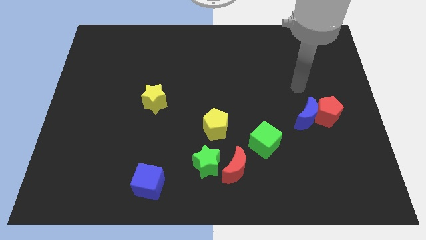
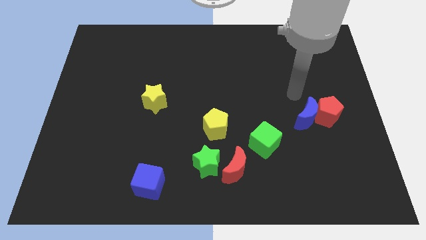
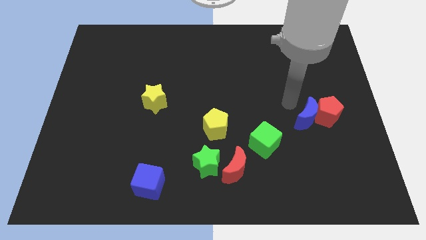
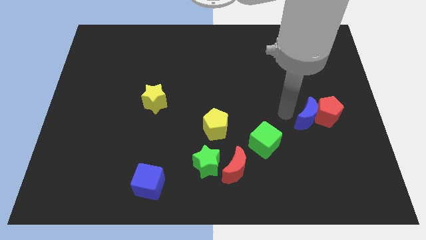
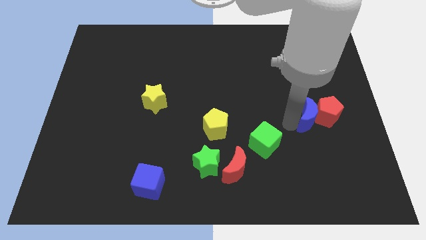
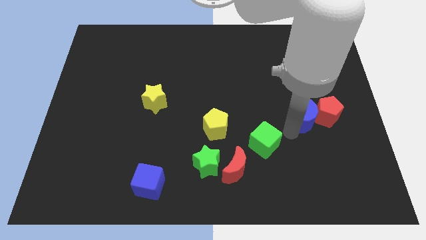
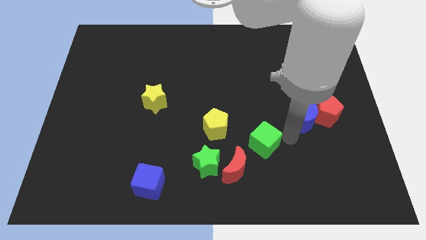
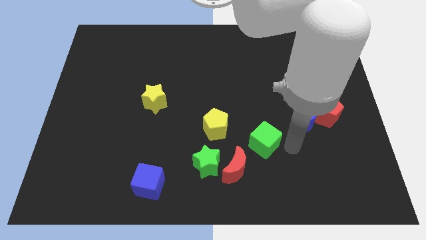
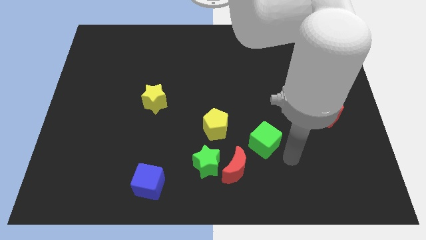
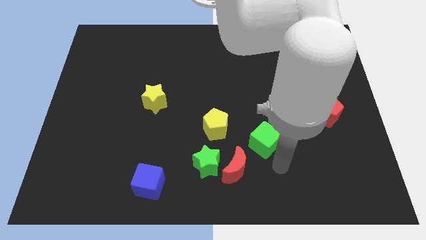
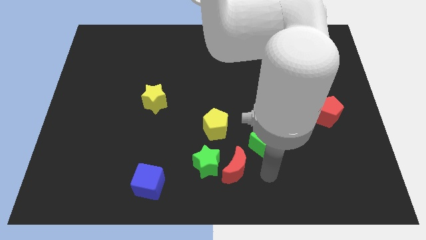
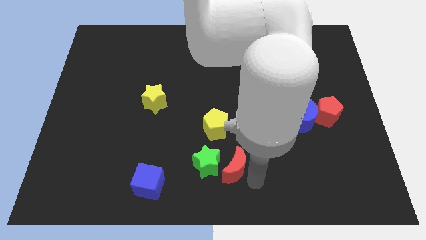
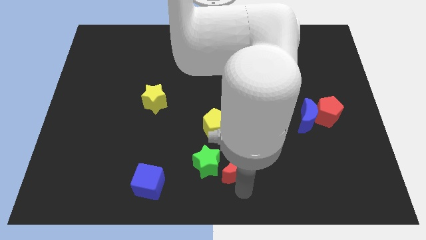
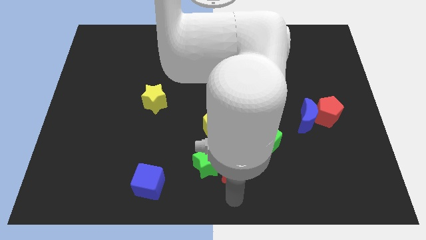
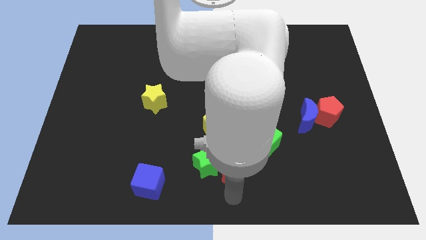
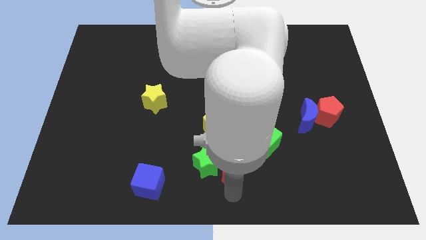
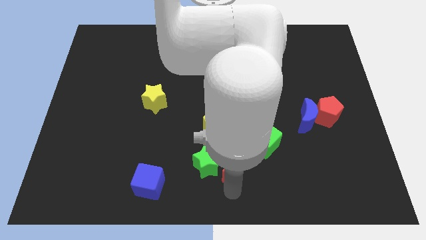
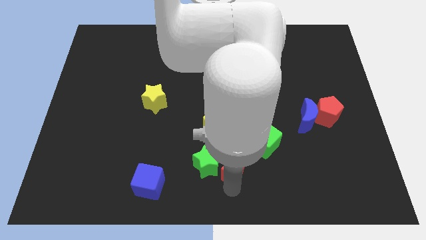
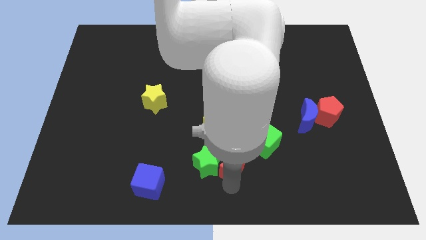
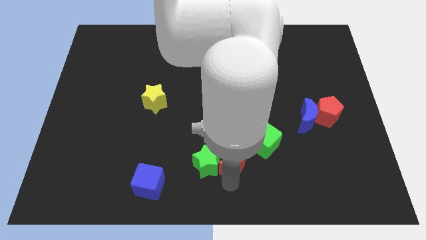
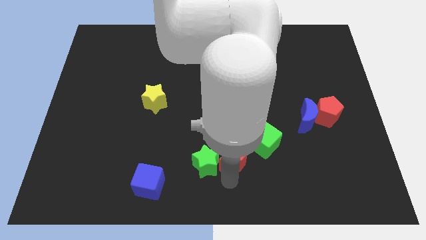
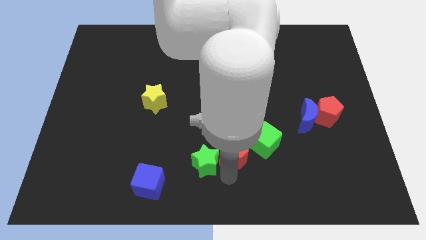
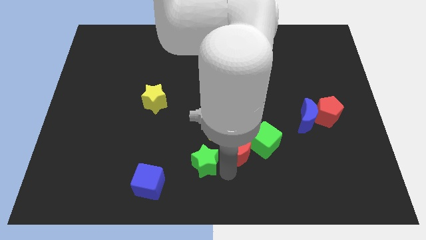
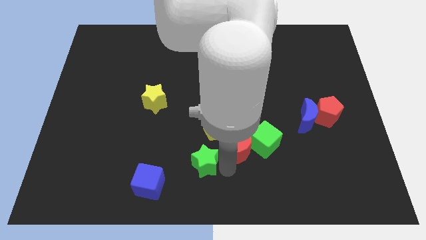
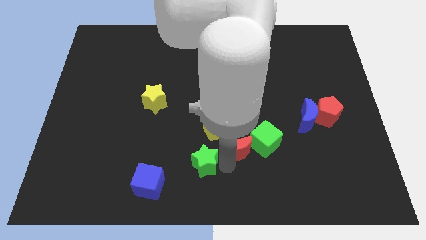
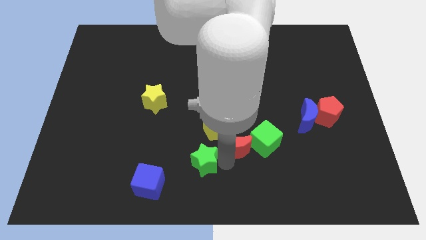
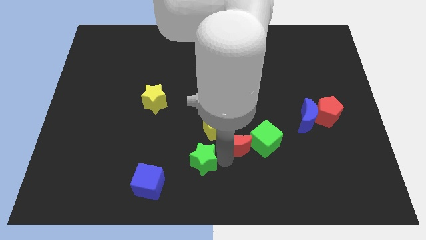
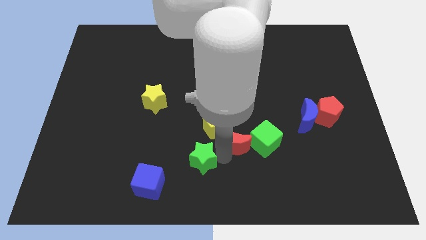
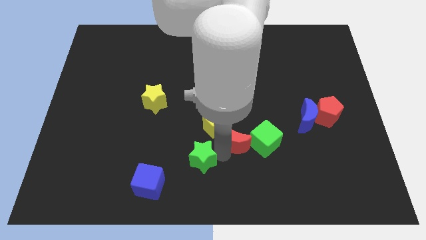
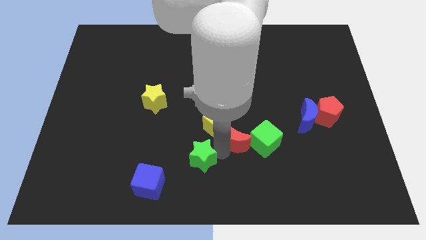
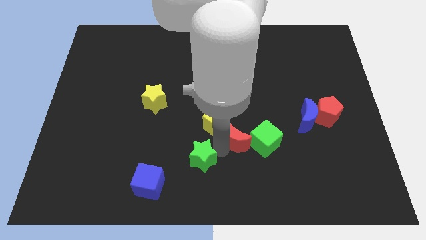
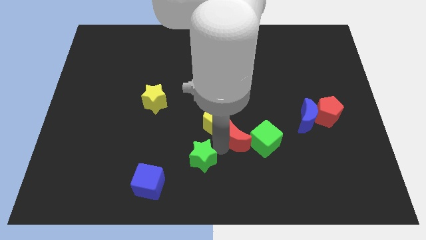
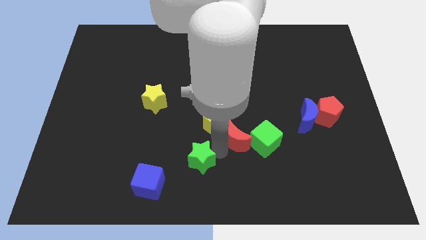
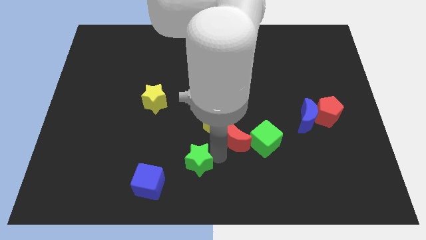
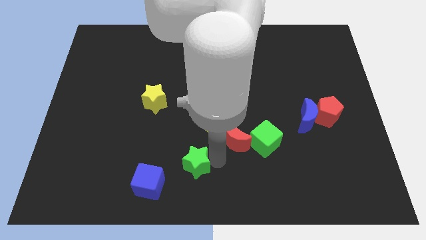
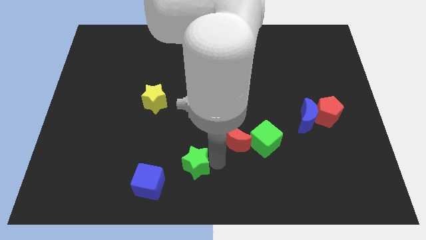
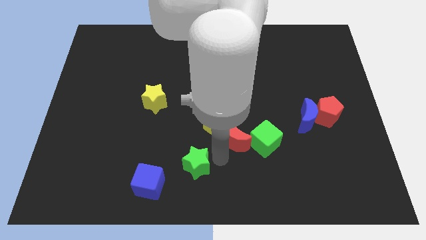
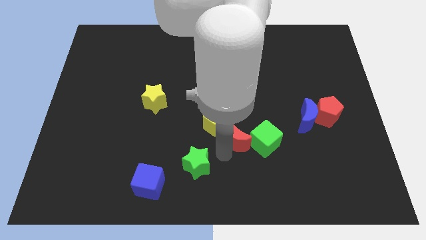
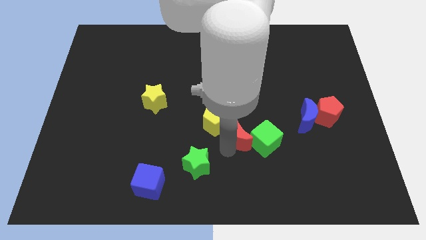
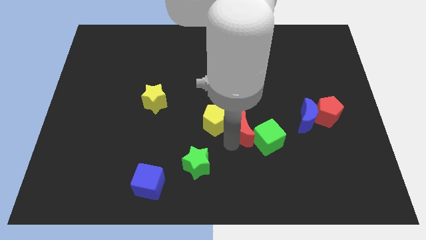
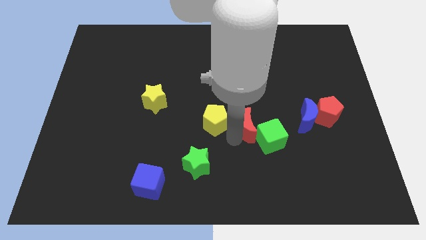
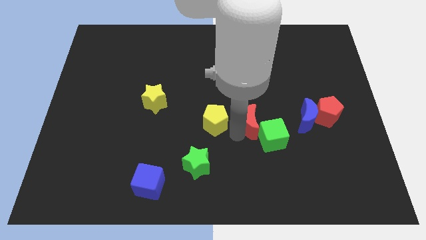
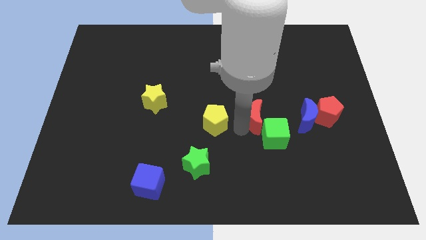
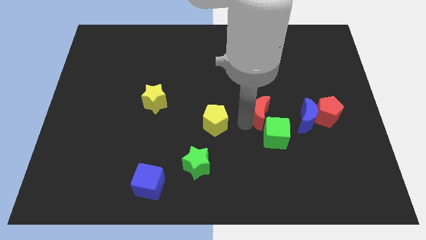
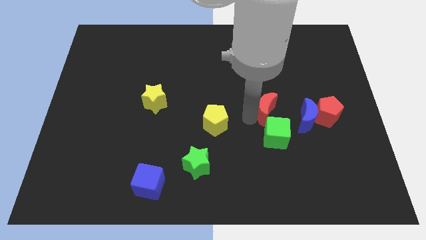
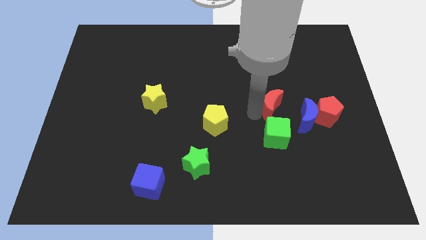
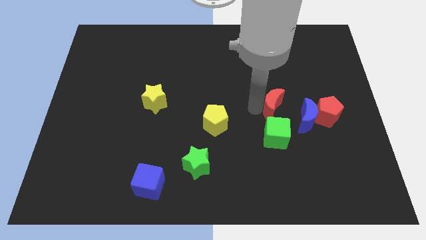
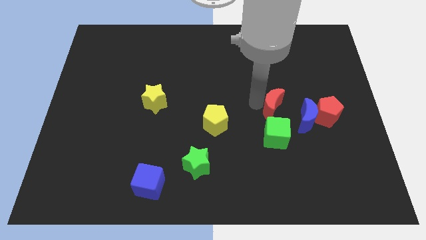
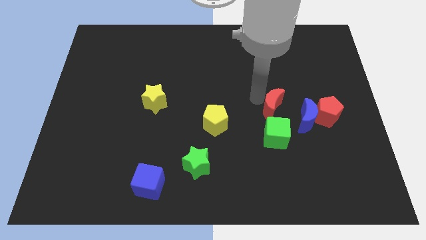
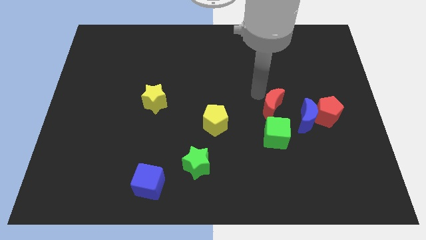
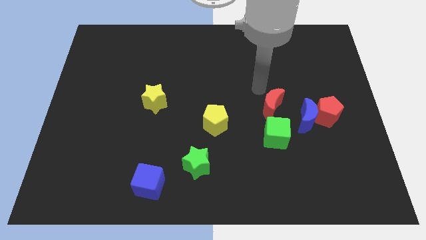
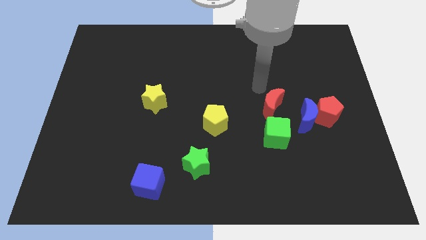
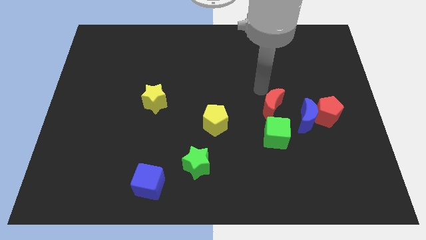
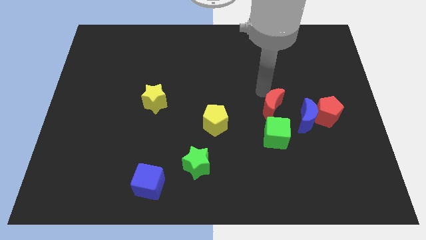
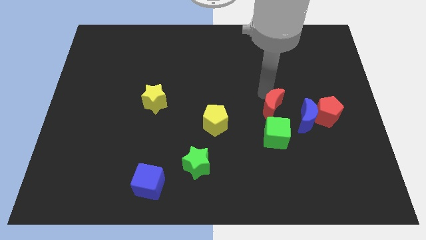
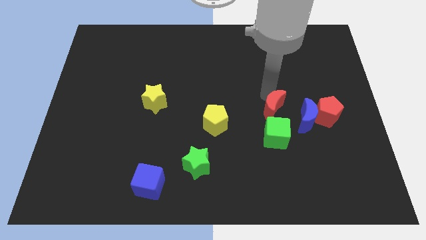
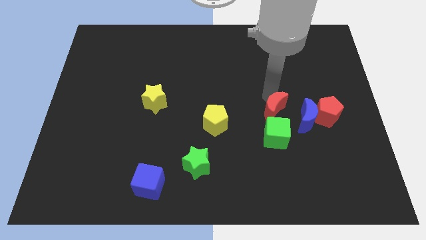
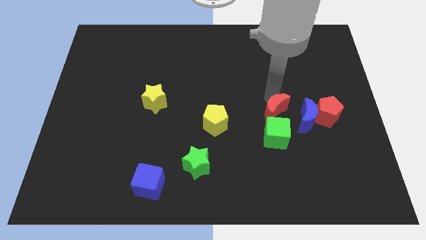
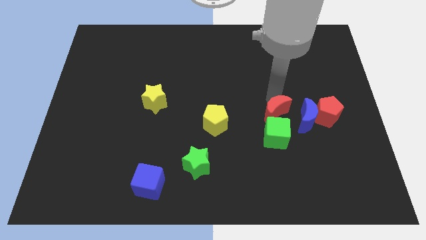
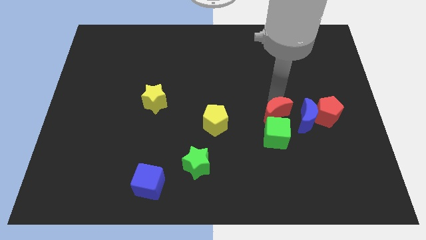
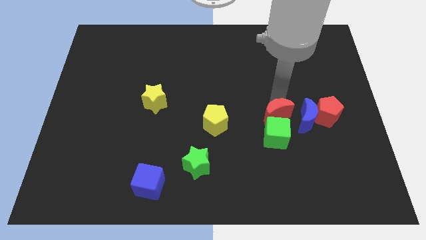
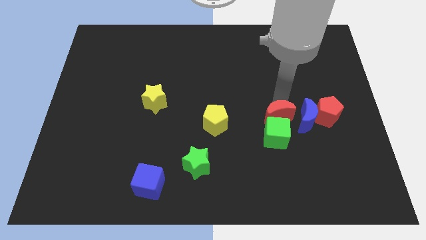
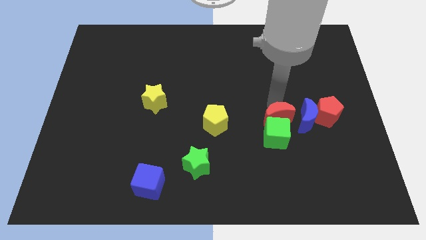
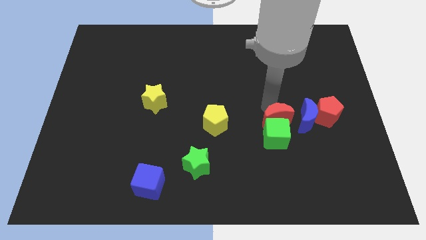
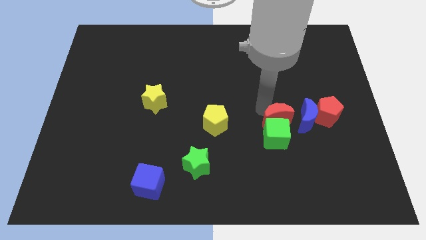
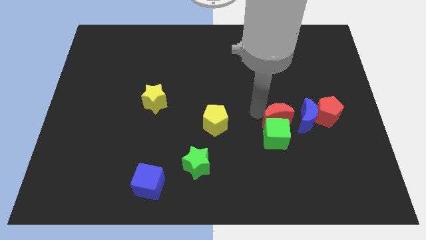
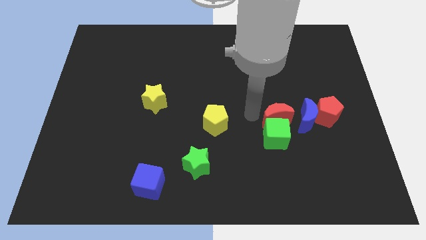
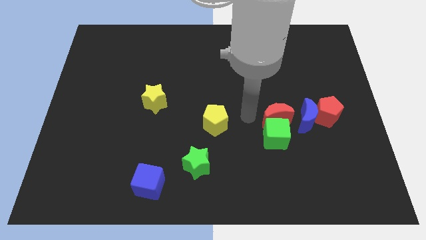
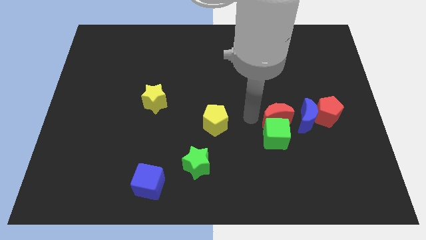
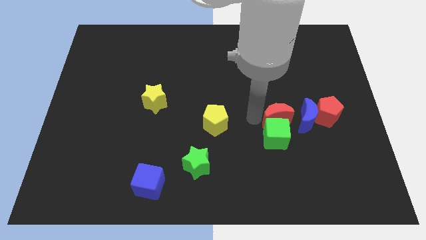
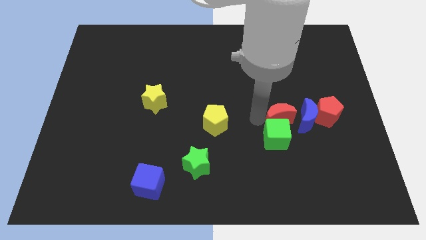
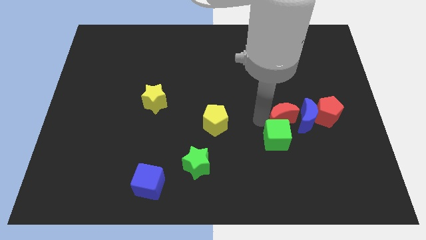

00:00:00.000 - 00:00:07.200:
slide the red moon to the blue moon

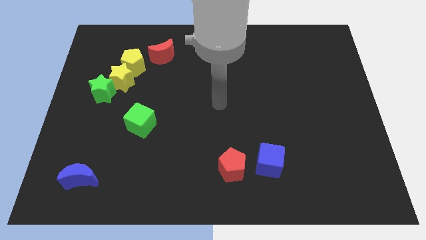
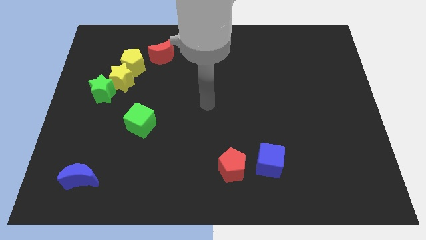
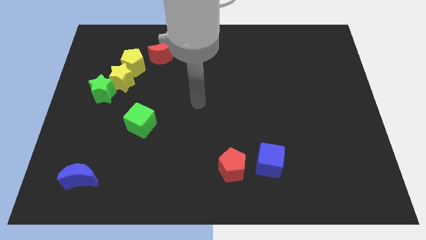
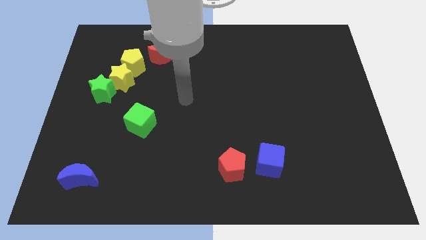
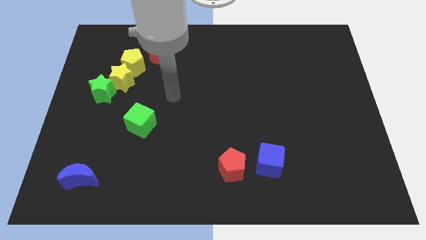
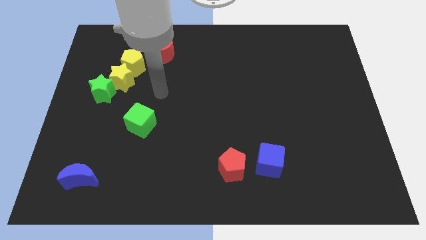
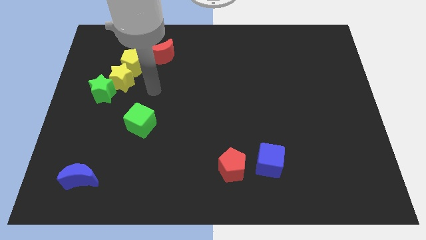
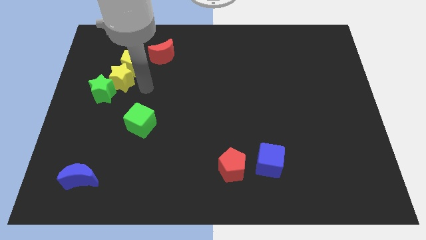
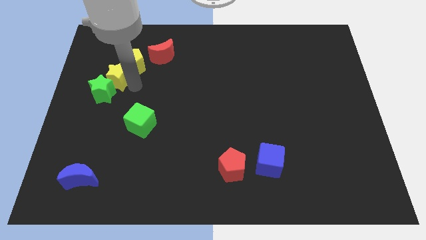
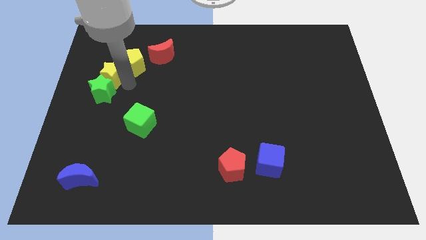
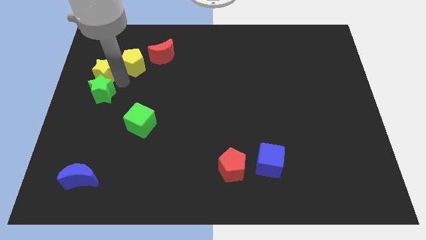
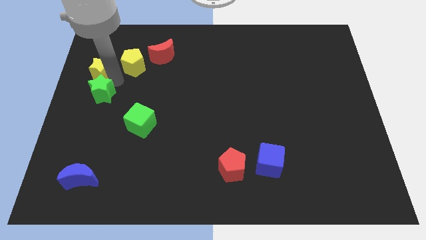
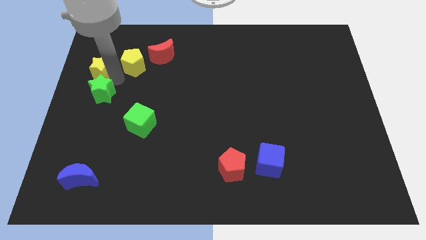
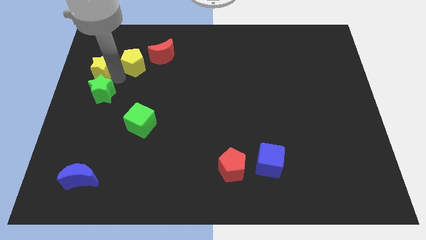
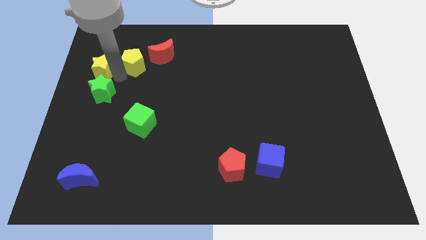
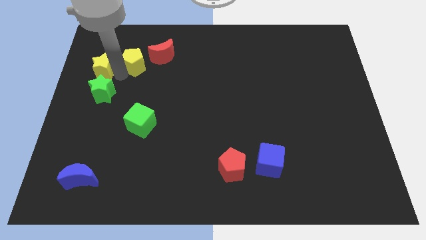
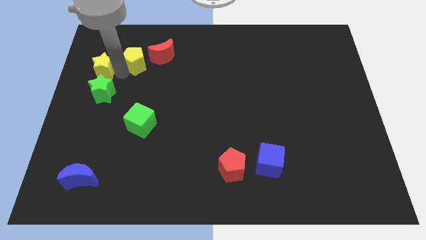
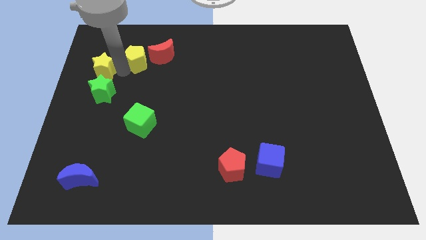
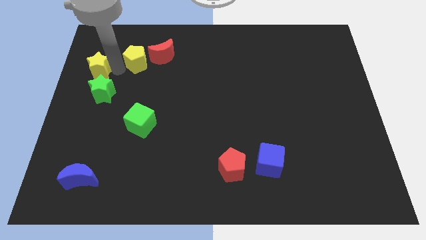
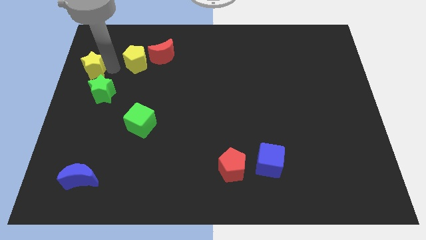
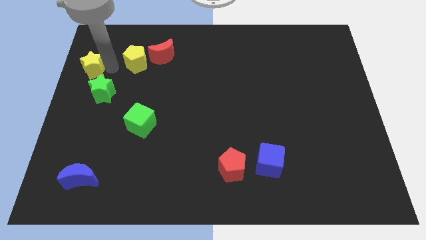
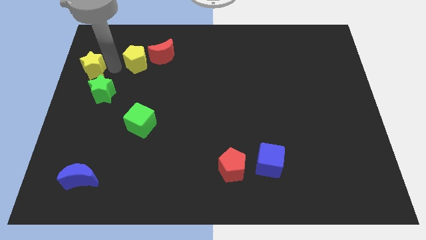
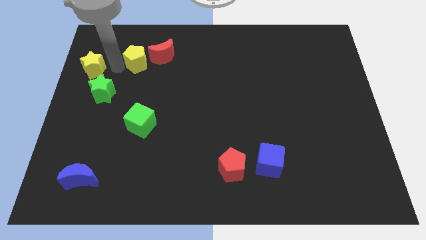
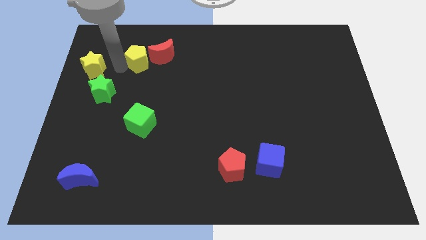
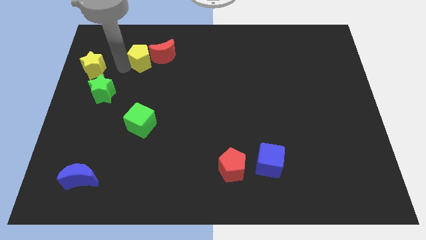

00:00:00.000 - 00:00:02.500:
slide the yellow pentagon towards the red moon
